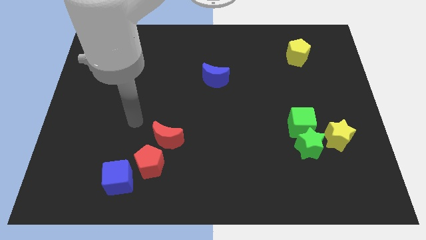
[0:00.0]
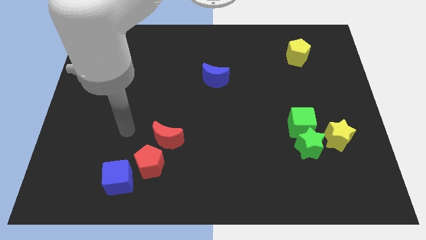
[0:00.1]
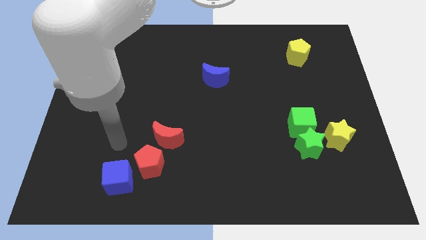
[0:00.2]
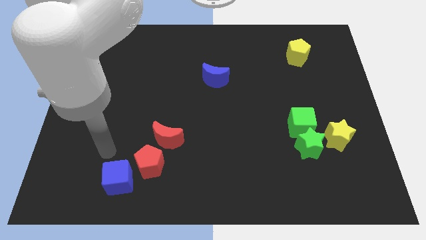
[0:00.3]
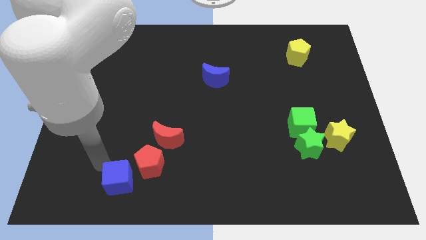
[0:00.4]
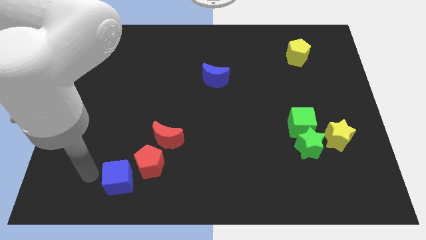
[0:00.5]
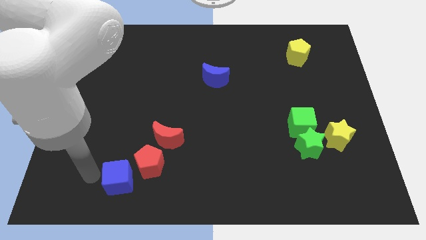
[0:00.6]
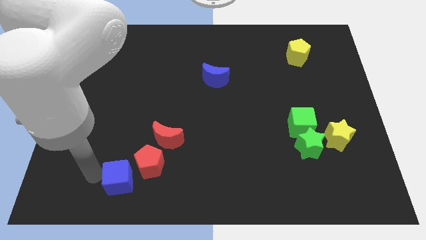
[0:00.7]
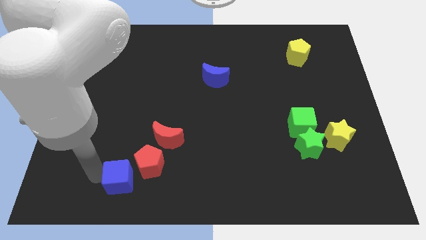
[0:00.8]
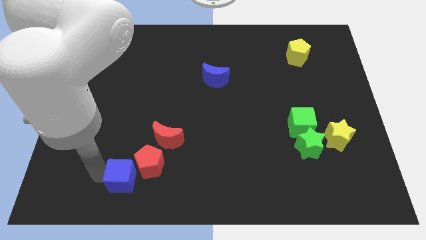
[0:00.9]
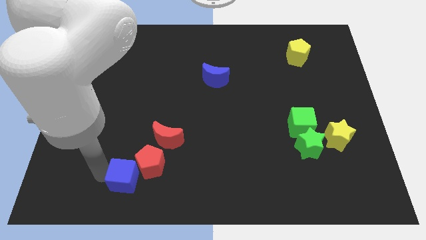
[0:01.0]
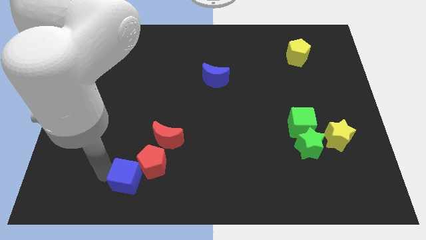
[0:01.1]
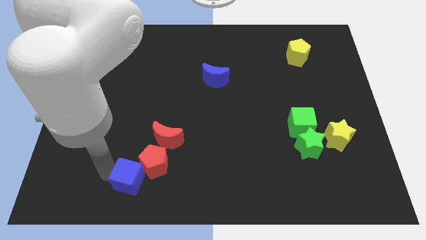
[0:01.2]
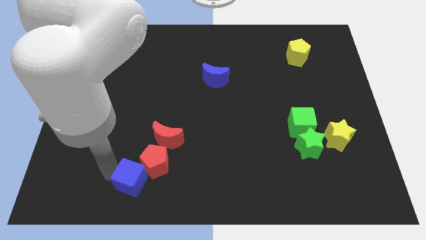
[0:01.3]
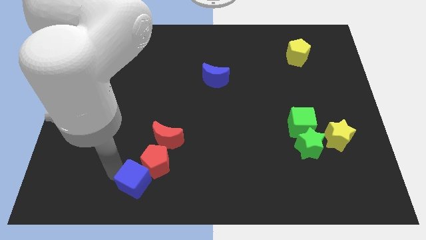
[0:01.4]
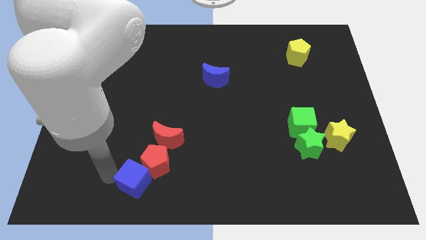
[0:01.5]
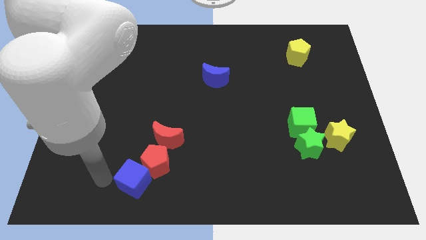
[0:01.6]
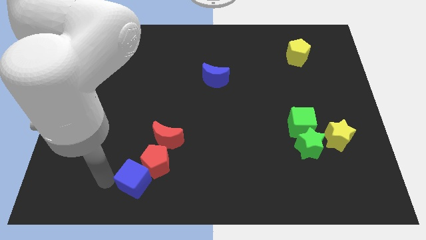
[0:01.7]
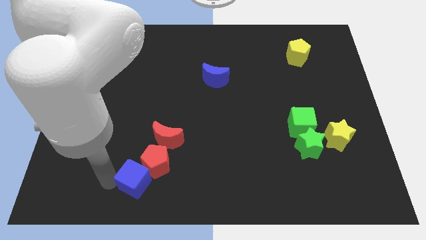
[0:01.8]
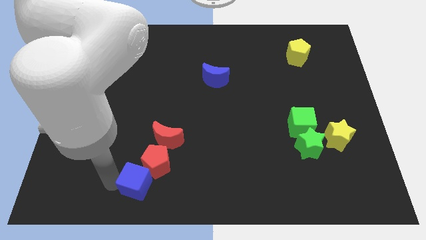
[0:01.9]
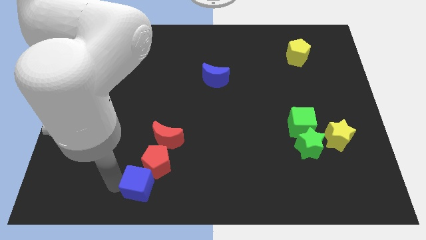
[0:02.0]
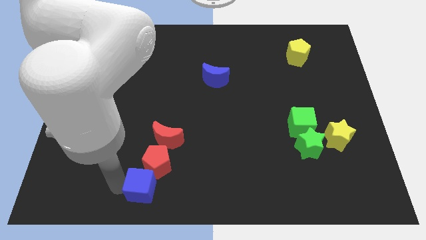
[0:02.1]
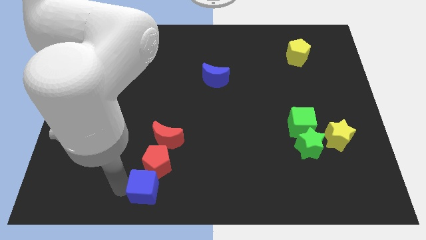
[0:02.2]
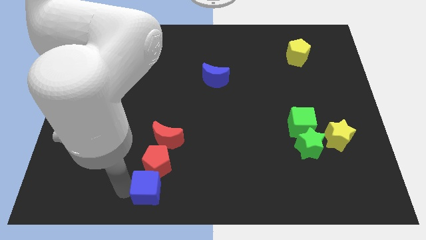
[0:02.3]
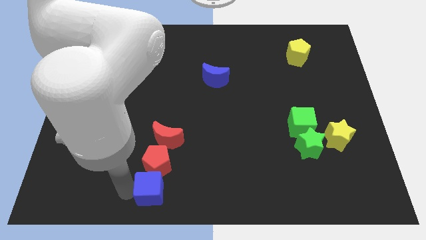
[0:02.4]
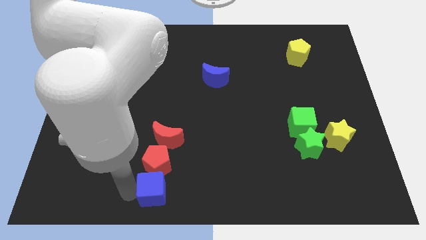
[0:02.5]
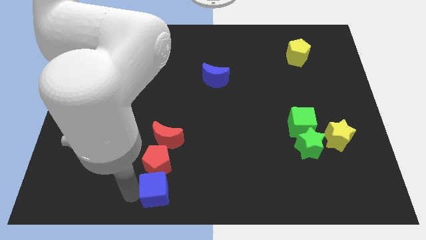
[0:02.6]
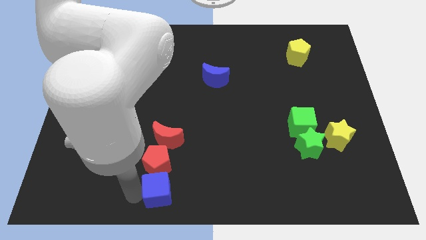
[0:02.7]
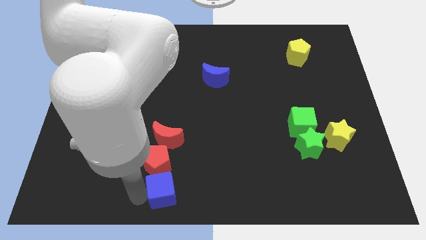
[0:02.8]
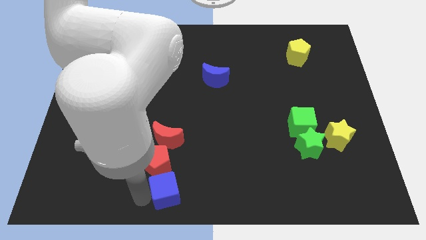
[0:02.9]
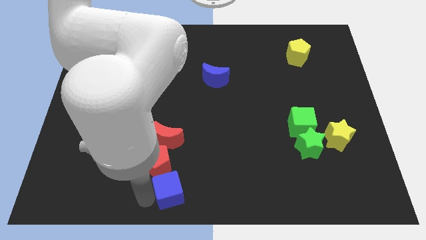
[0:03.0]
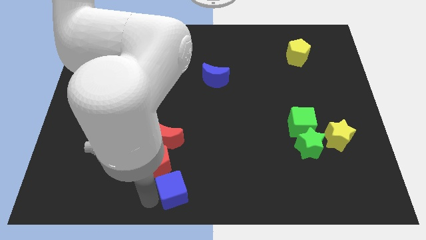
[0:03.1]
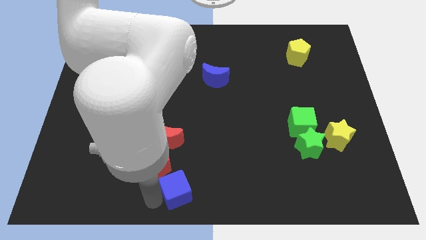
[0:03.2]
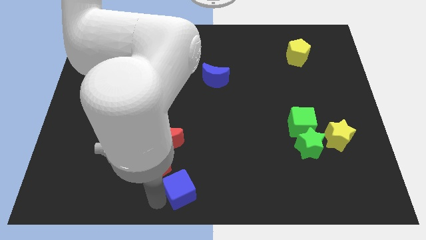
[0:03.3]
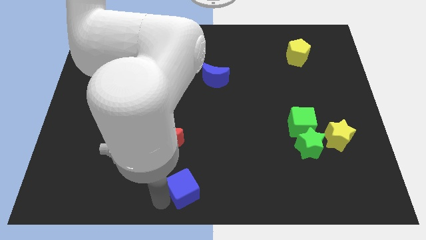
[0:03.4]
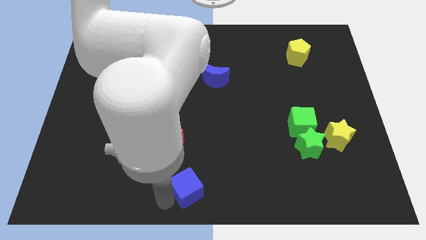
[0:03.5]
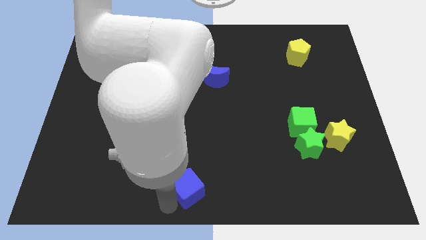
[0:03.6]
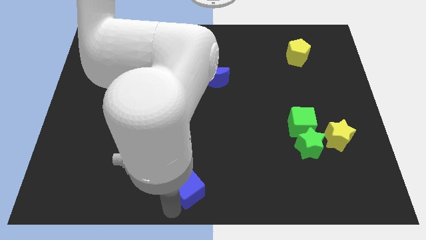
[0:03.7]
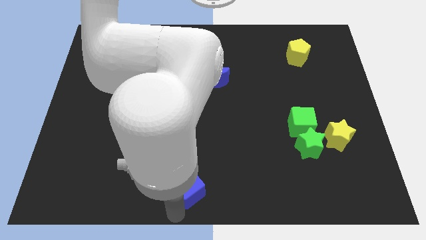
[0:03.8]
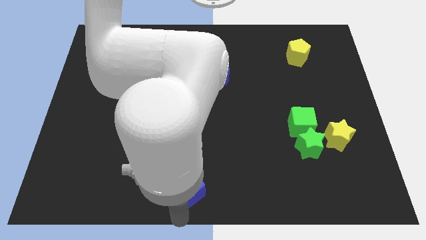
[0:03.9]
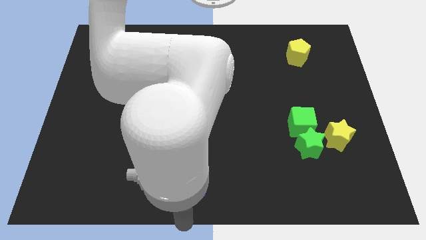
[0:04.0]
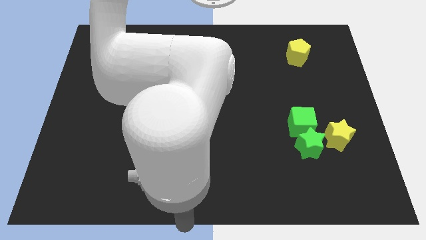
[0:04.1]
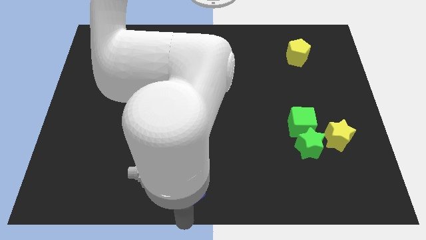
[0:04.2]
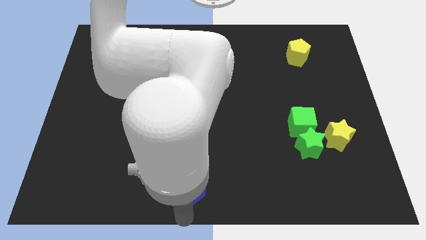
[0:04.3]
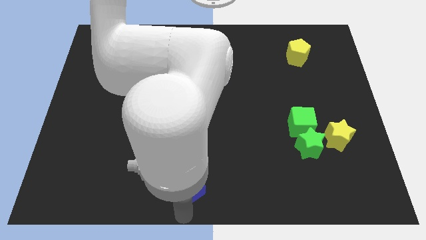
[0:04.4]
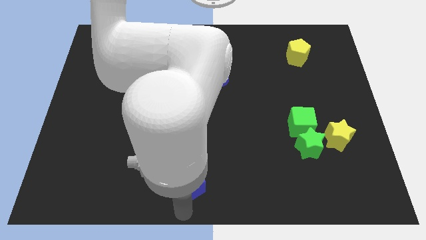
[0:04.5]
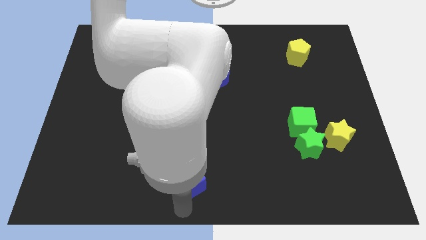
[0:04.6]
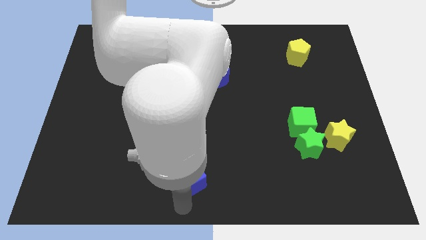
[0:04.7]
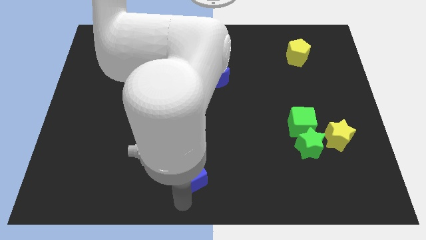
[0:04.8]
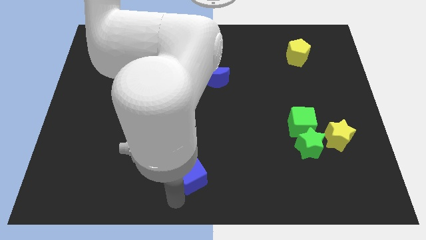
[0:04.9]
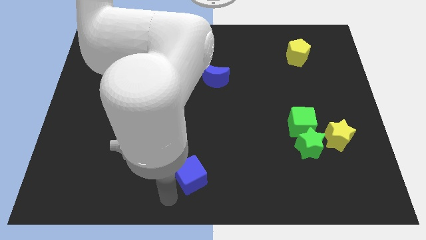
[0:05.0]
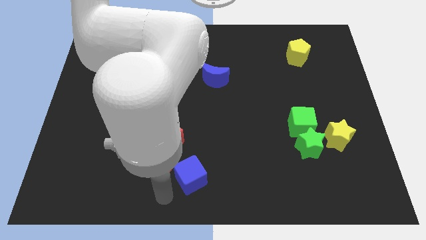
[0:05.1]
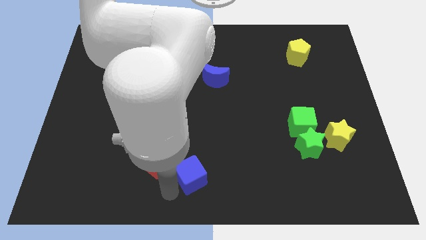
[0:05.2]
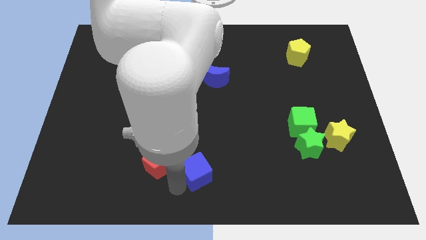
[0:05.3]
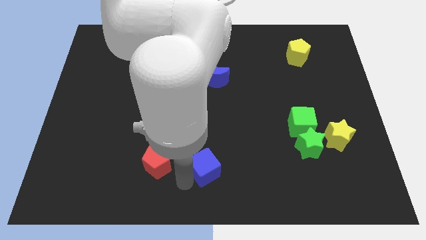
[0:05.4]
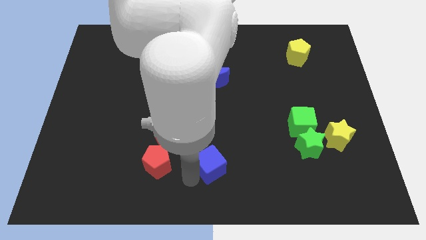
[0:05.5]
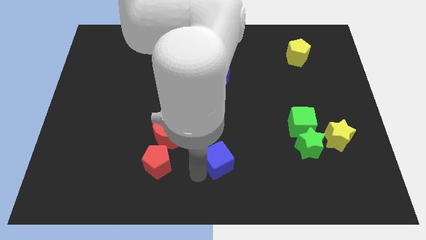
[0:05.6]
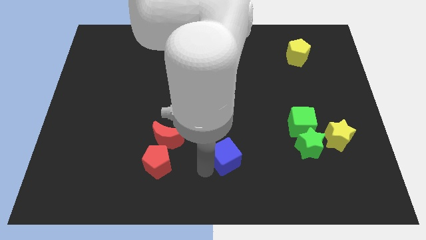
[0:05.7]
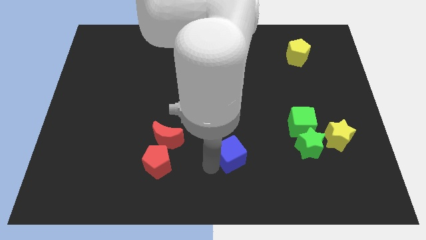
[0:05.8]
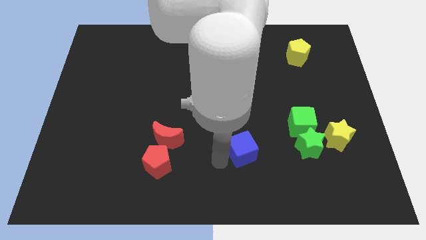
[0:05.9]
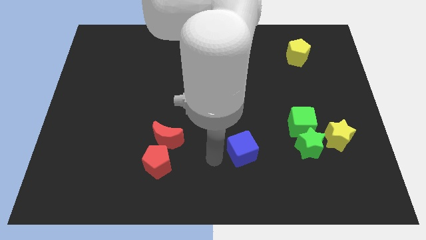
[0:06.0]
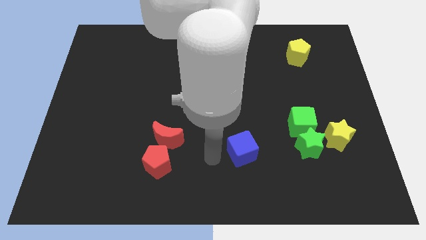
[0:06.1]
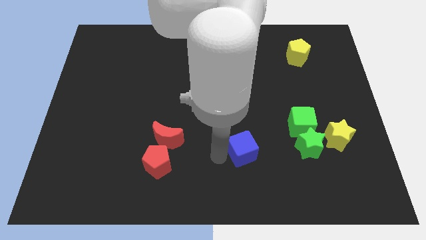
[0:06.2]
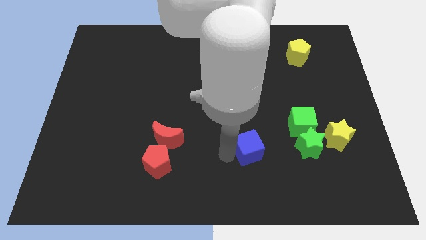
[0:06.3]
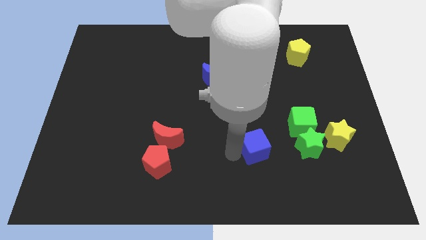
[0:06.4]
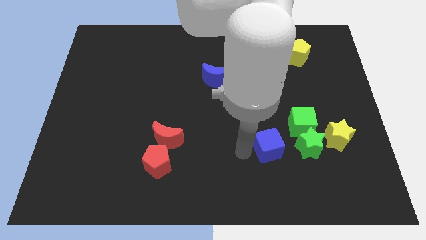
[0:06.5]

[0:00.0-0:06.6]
push the blue cube left of the yellow star
